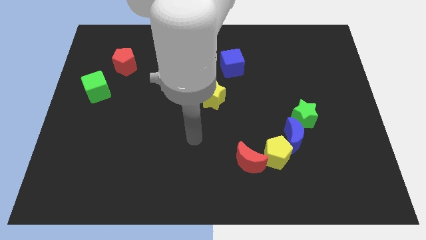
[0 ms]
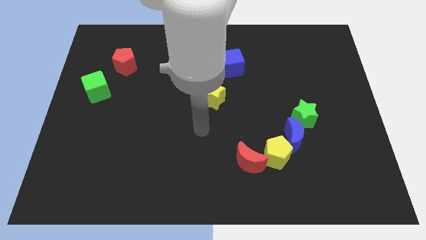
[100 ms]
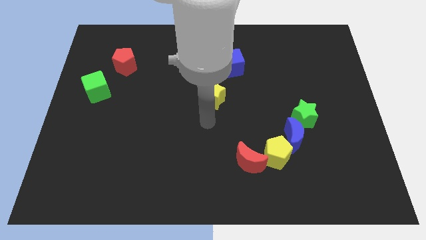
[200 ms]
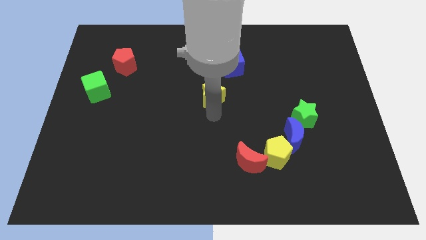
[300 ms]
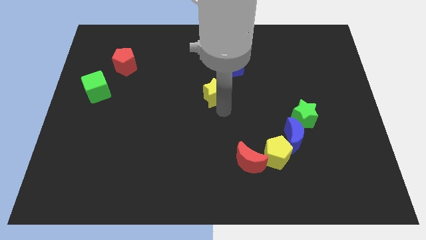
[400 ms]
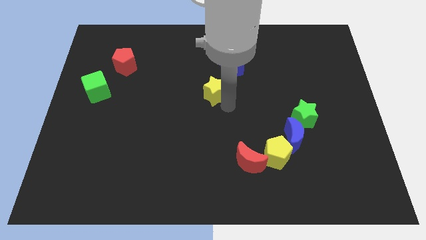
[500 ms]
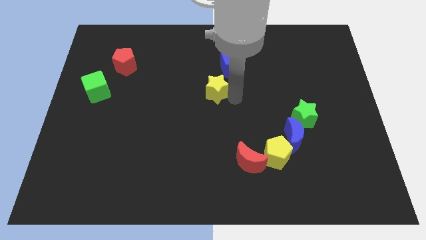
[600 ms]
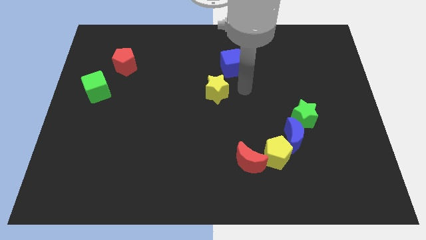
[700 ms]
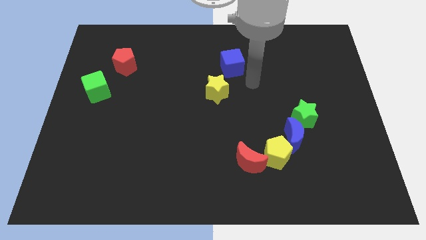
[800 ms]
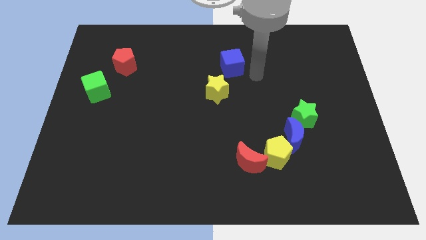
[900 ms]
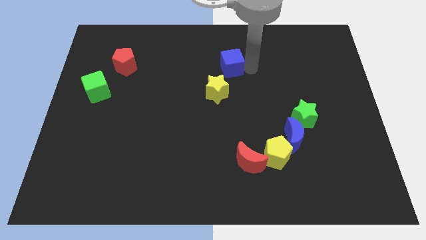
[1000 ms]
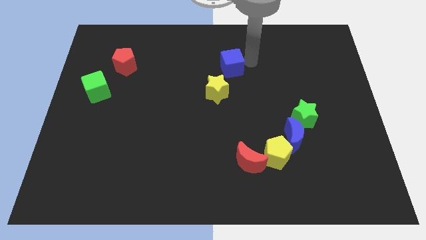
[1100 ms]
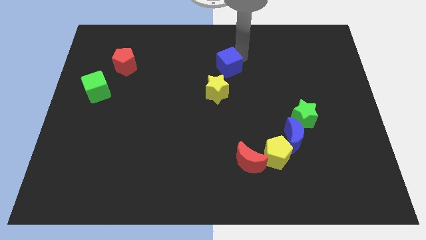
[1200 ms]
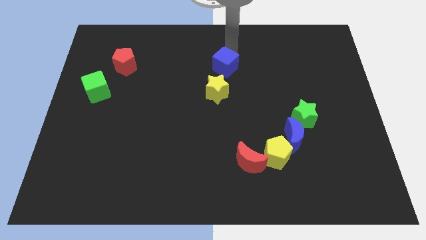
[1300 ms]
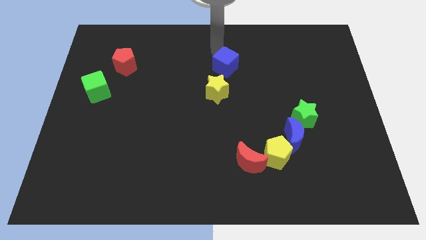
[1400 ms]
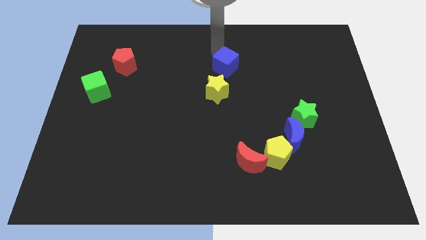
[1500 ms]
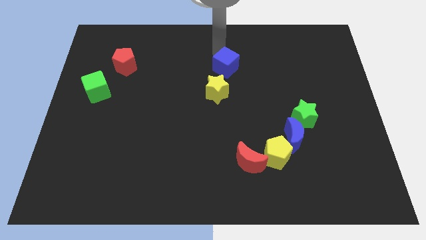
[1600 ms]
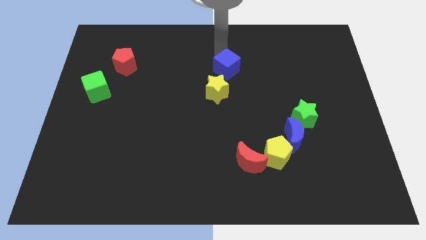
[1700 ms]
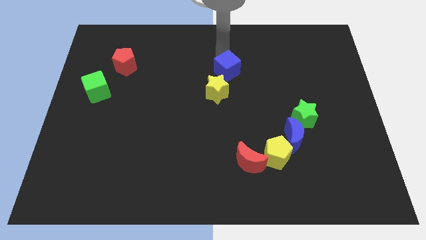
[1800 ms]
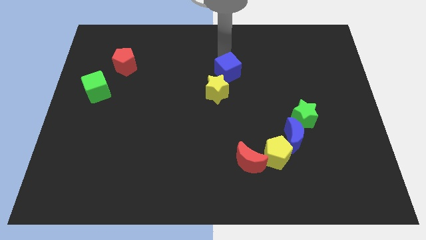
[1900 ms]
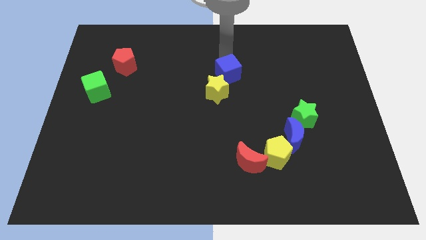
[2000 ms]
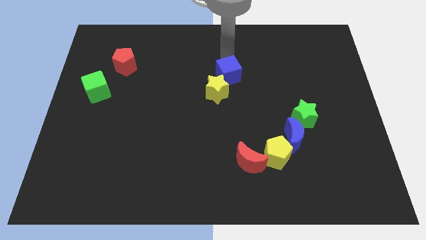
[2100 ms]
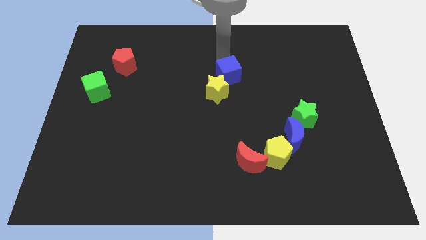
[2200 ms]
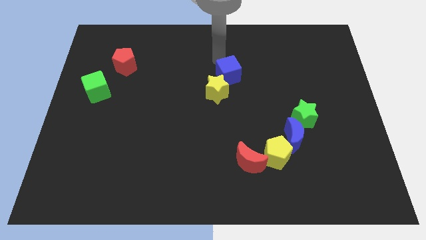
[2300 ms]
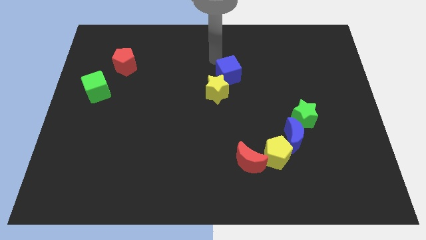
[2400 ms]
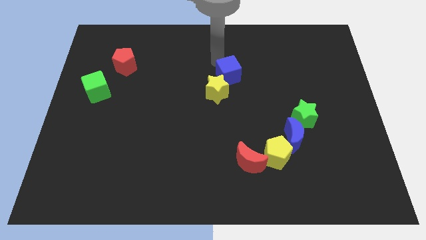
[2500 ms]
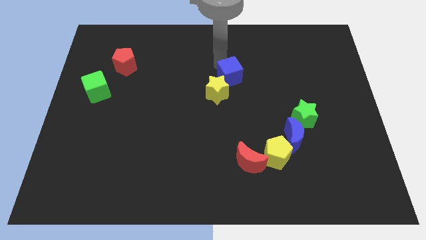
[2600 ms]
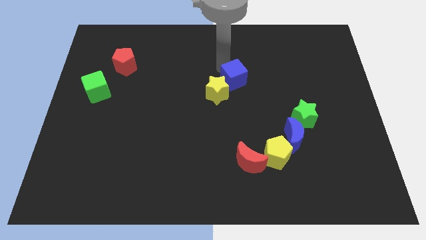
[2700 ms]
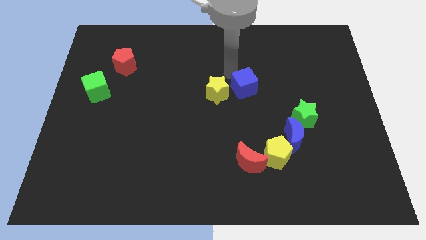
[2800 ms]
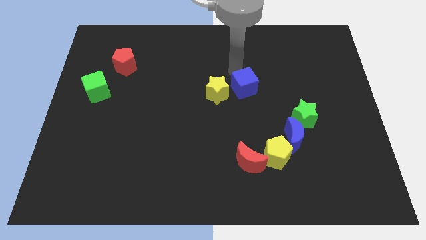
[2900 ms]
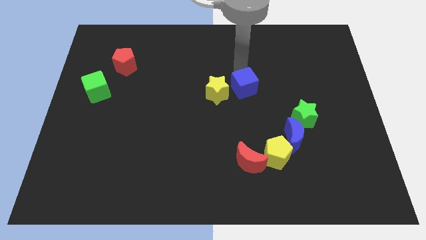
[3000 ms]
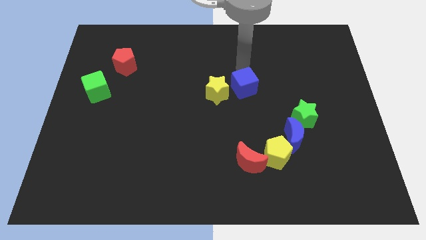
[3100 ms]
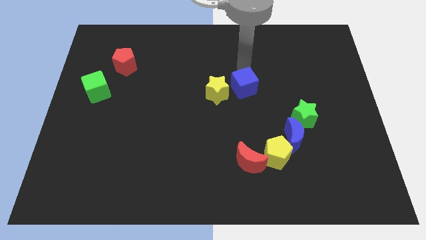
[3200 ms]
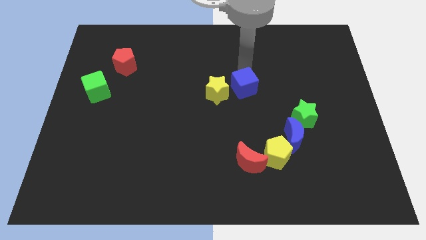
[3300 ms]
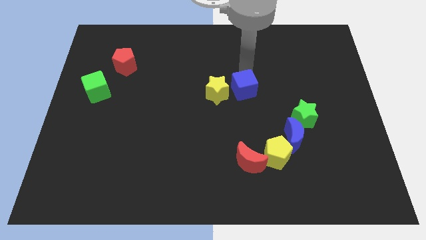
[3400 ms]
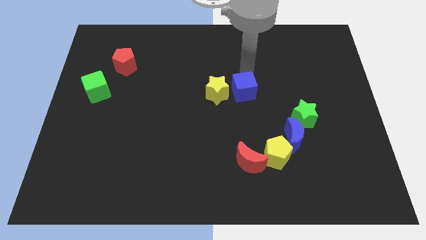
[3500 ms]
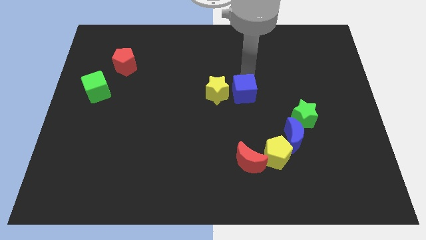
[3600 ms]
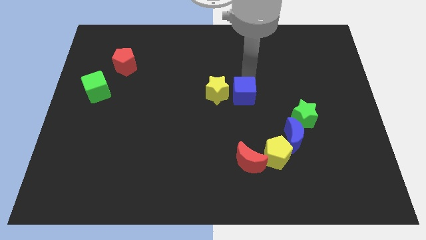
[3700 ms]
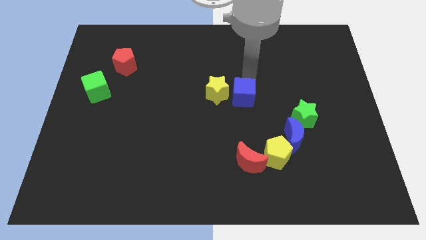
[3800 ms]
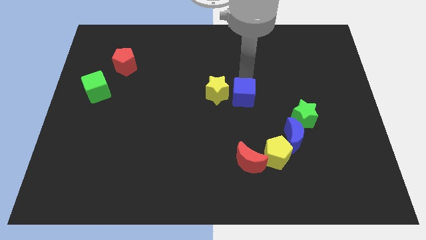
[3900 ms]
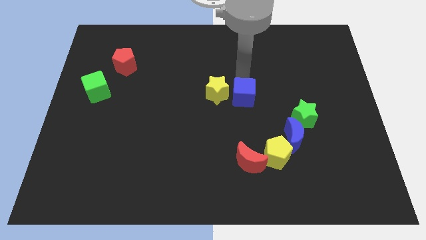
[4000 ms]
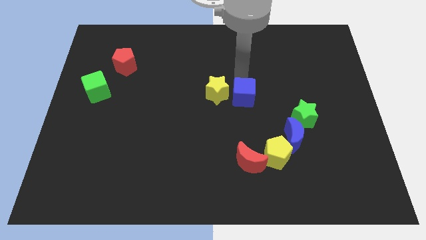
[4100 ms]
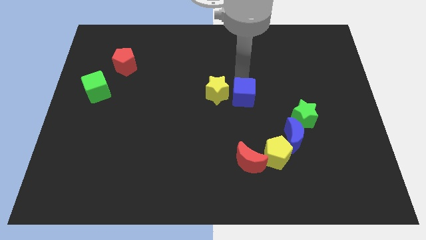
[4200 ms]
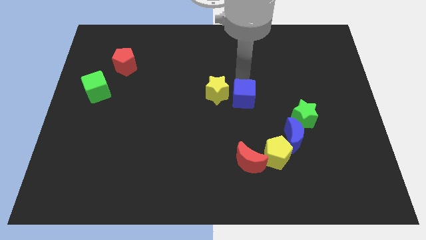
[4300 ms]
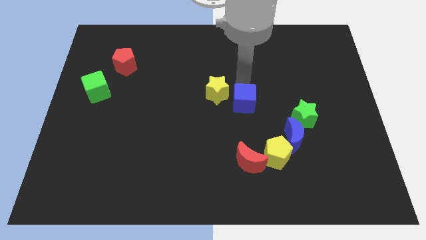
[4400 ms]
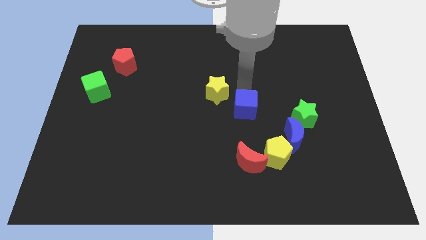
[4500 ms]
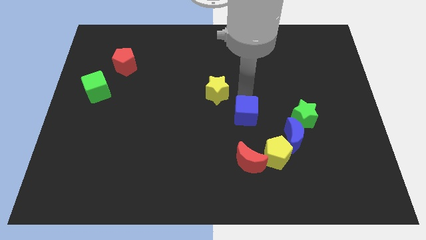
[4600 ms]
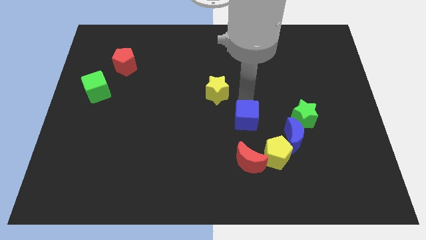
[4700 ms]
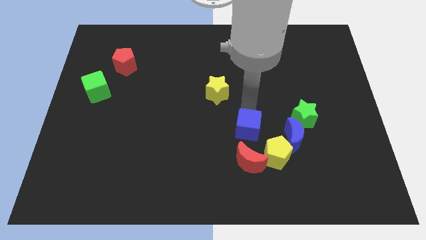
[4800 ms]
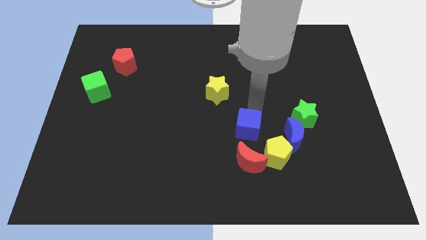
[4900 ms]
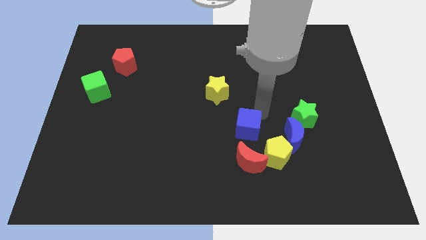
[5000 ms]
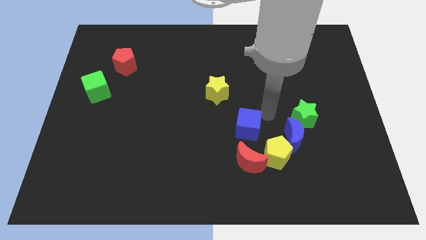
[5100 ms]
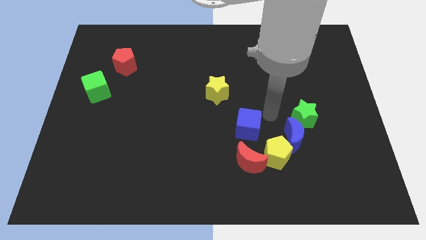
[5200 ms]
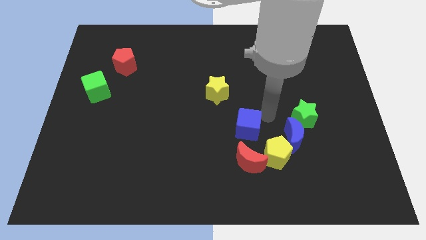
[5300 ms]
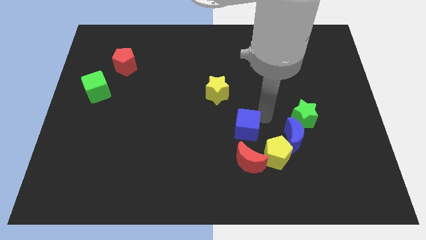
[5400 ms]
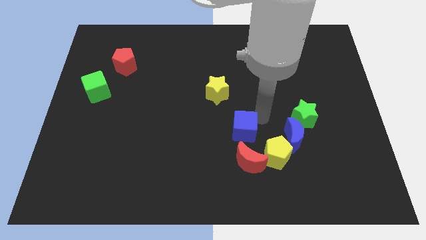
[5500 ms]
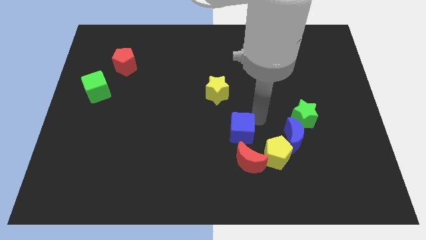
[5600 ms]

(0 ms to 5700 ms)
slide the blue cube to the top left of the red moon

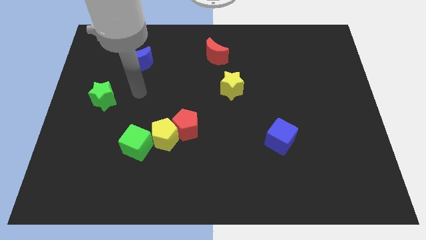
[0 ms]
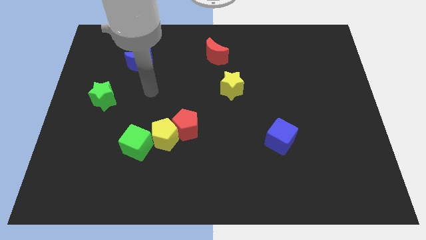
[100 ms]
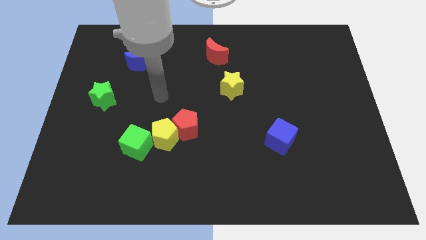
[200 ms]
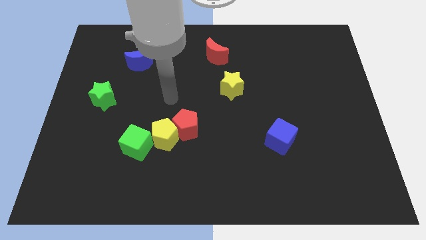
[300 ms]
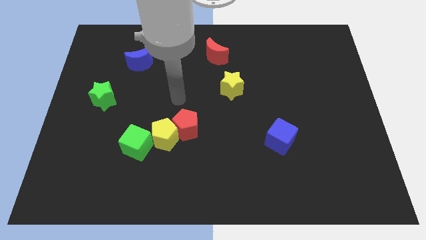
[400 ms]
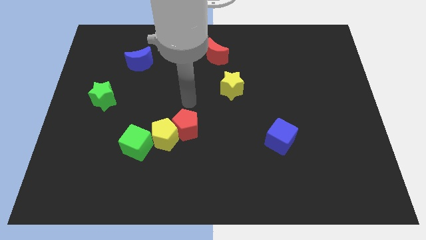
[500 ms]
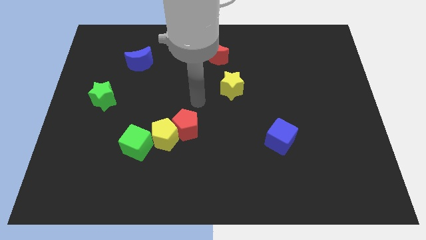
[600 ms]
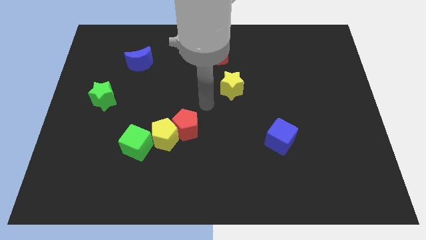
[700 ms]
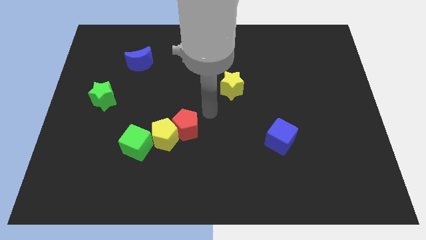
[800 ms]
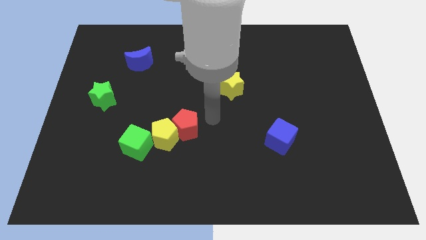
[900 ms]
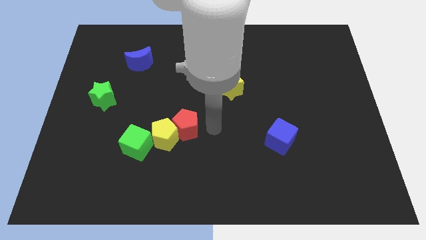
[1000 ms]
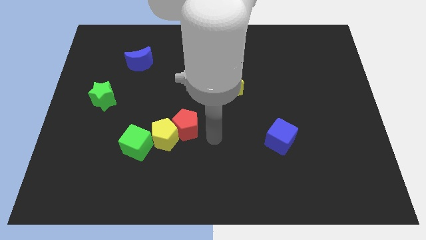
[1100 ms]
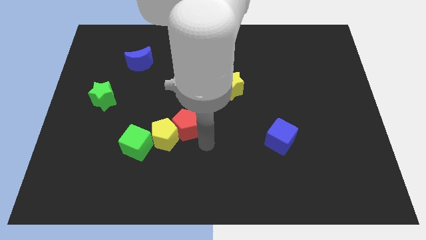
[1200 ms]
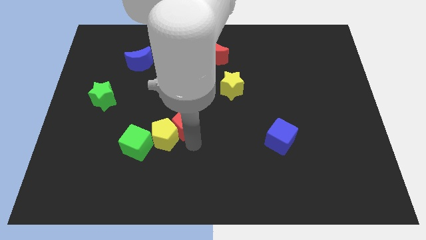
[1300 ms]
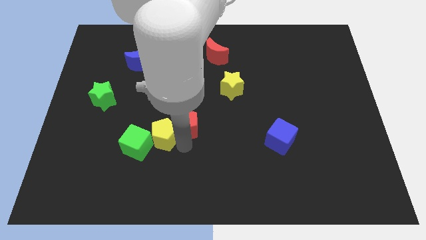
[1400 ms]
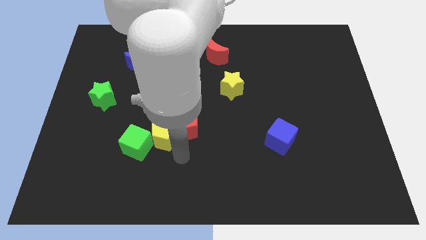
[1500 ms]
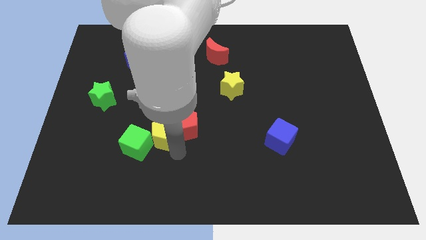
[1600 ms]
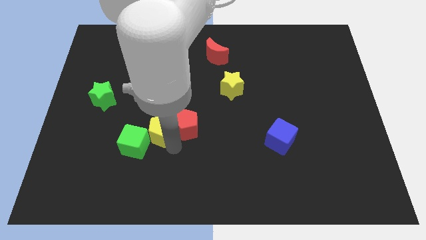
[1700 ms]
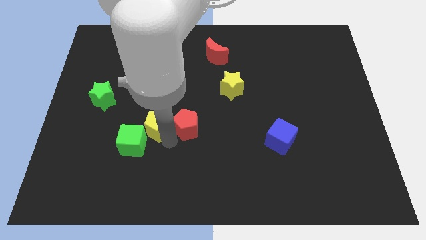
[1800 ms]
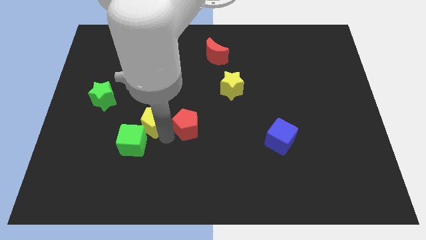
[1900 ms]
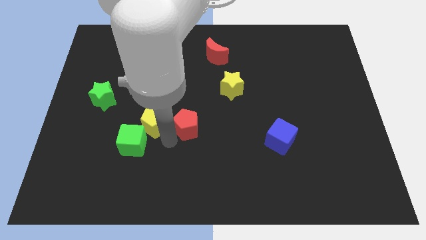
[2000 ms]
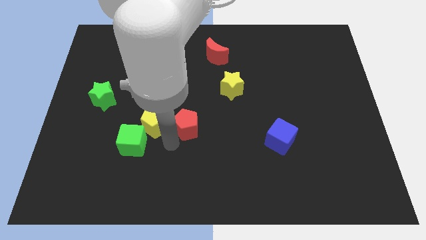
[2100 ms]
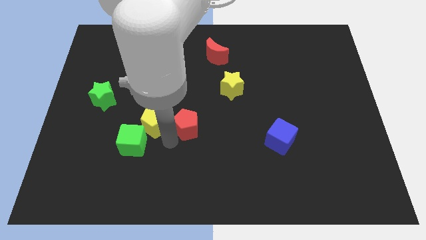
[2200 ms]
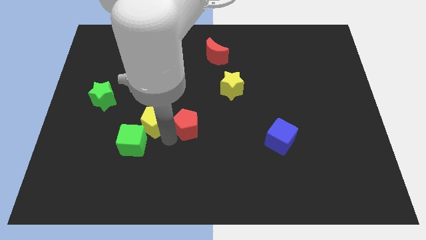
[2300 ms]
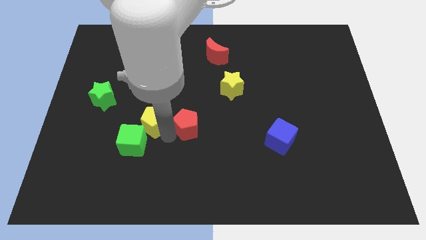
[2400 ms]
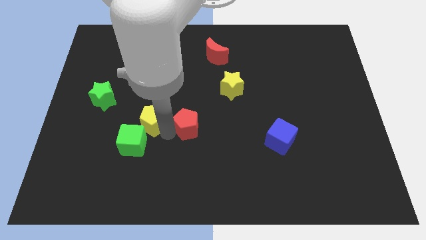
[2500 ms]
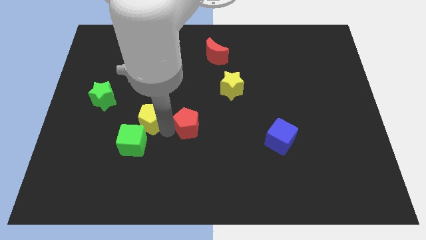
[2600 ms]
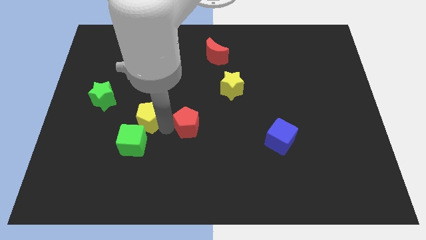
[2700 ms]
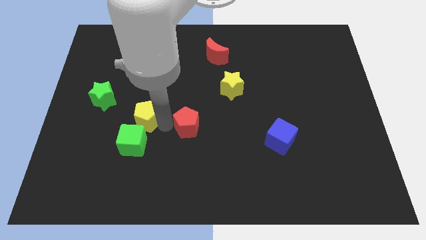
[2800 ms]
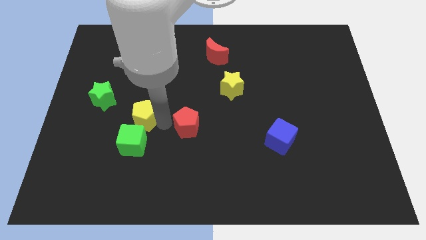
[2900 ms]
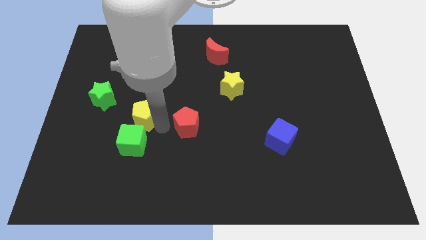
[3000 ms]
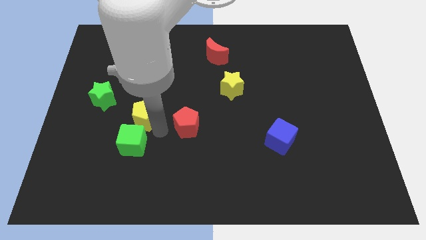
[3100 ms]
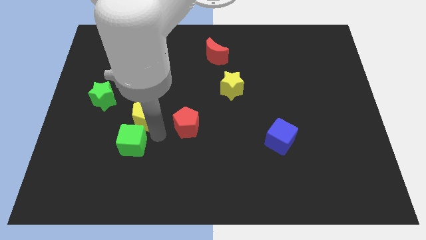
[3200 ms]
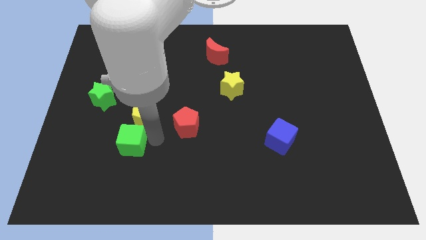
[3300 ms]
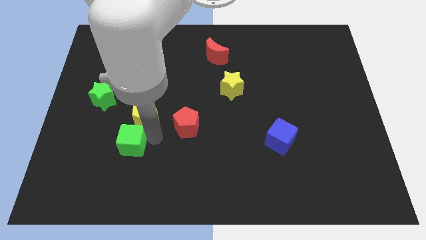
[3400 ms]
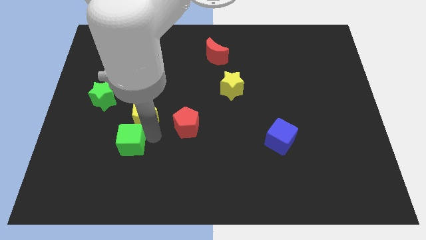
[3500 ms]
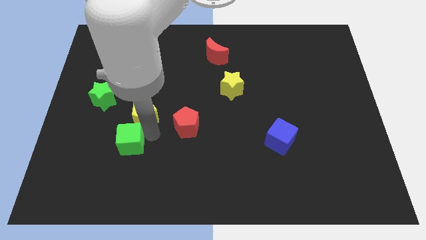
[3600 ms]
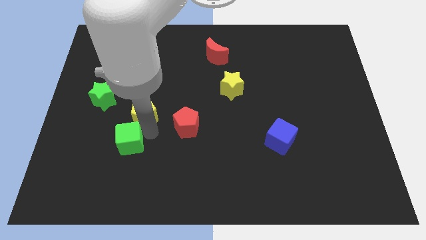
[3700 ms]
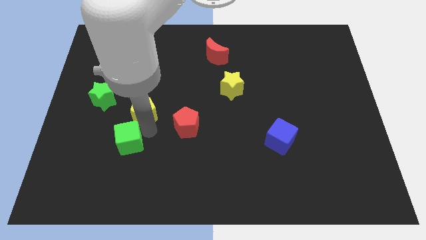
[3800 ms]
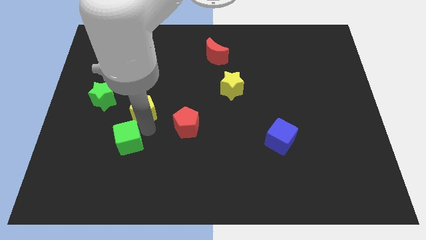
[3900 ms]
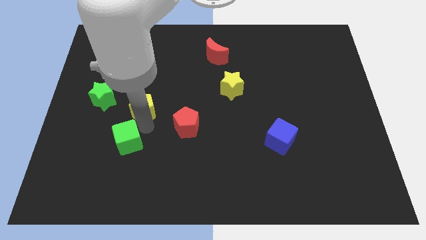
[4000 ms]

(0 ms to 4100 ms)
push the yellow pentagon below the blue moon
